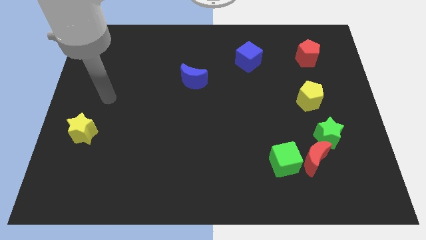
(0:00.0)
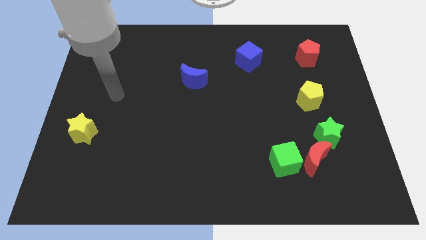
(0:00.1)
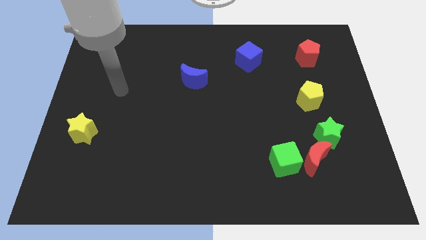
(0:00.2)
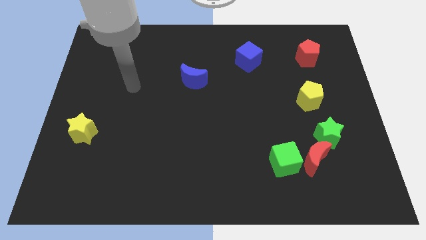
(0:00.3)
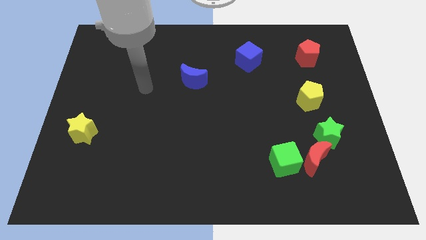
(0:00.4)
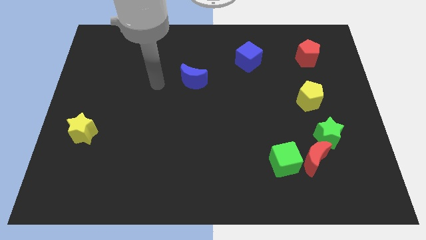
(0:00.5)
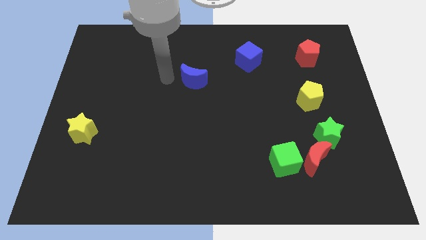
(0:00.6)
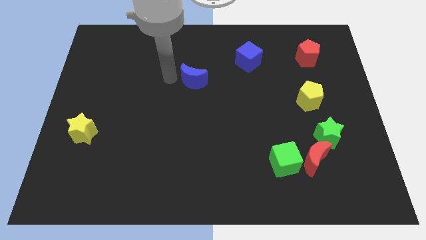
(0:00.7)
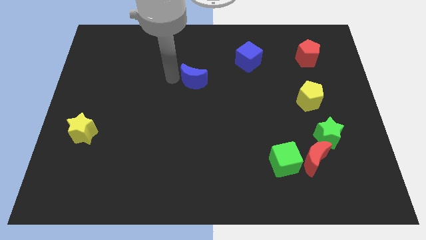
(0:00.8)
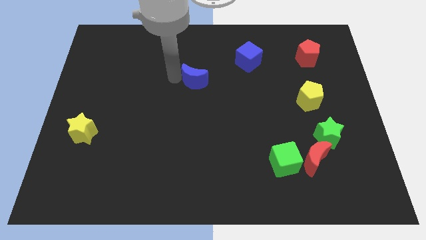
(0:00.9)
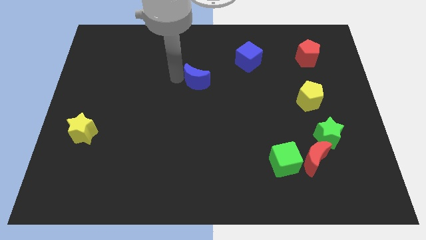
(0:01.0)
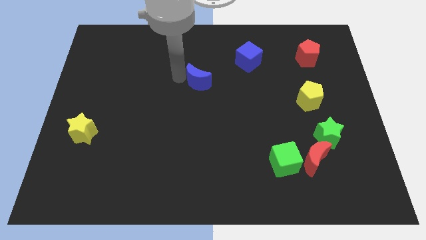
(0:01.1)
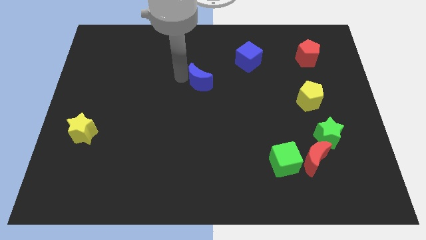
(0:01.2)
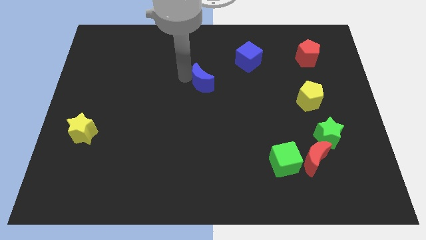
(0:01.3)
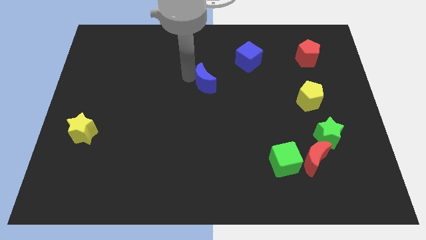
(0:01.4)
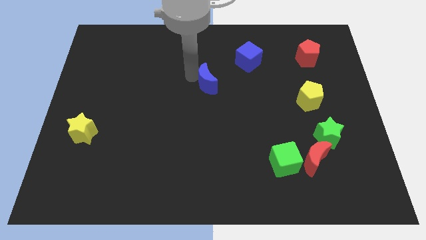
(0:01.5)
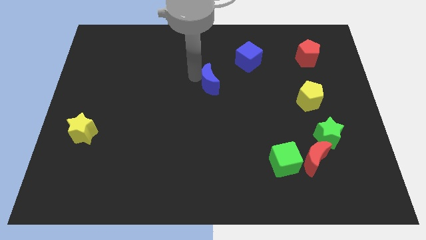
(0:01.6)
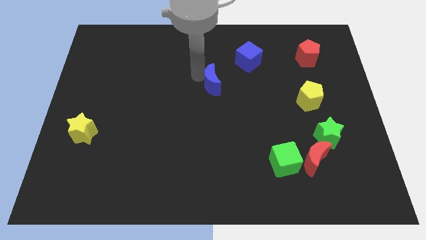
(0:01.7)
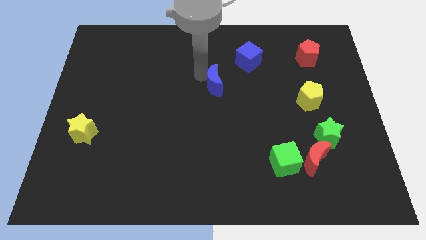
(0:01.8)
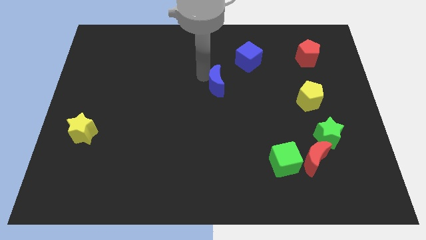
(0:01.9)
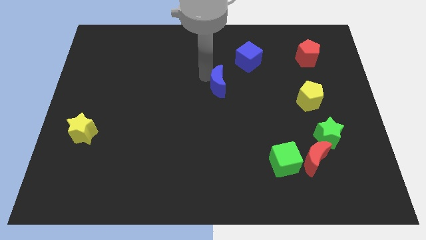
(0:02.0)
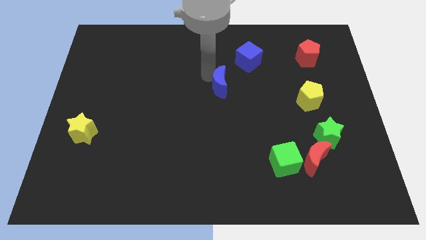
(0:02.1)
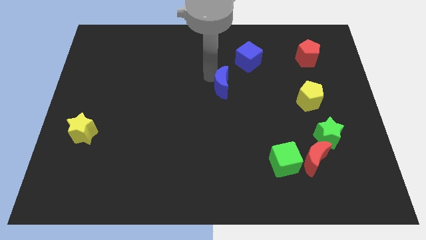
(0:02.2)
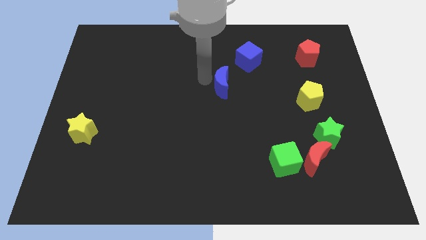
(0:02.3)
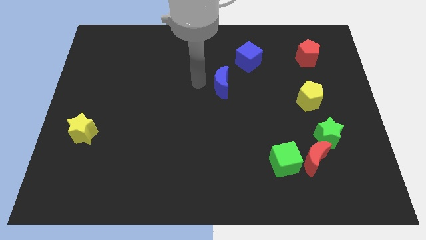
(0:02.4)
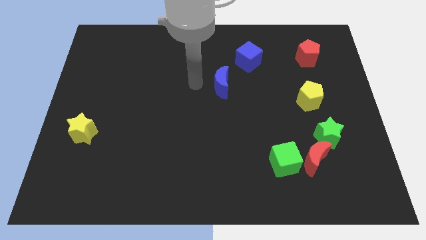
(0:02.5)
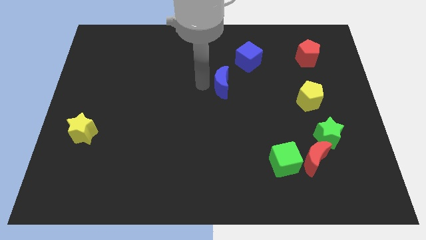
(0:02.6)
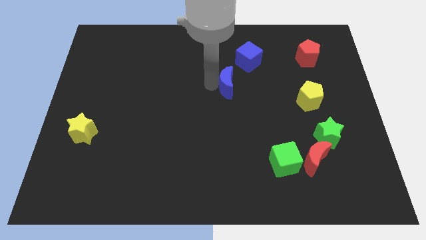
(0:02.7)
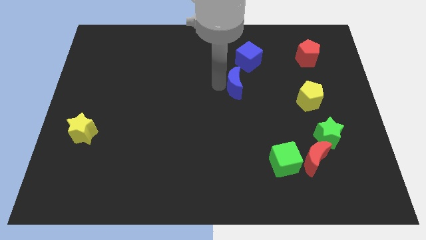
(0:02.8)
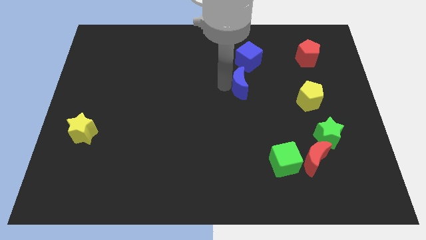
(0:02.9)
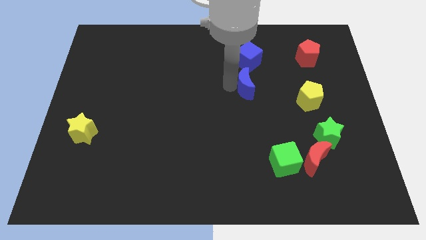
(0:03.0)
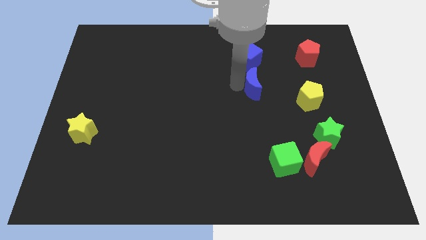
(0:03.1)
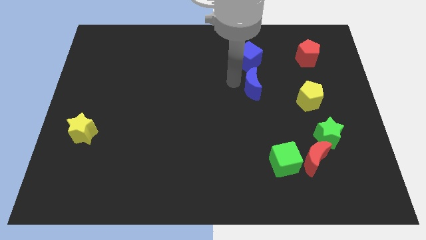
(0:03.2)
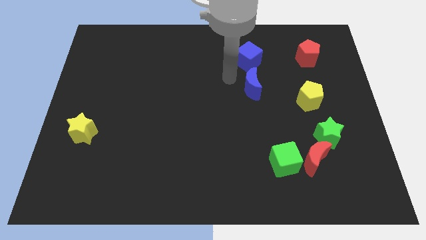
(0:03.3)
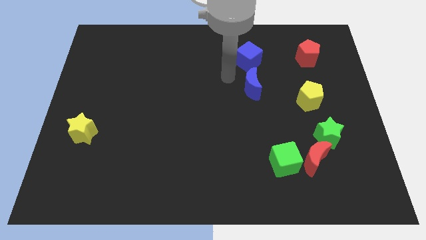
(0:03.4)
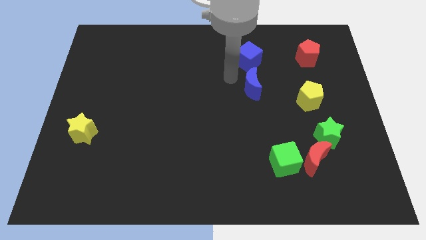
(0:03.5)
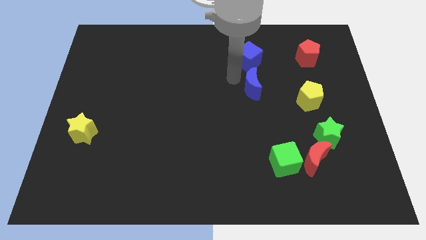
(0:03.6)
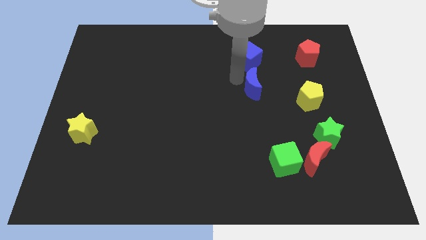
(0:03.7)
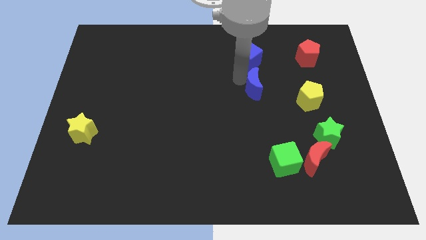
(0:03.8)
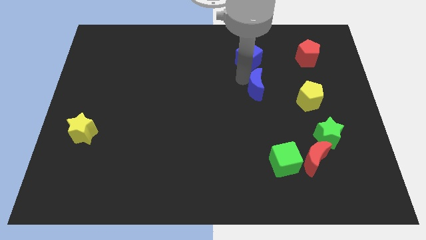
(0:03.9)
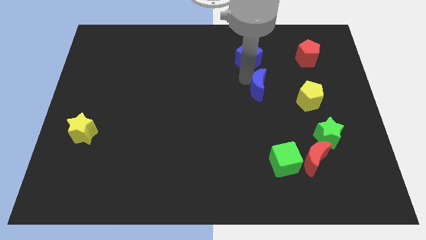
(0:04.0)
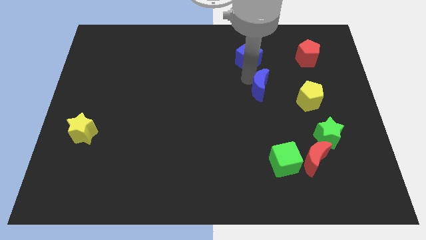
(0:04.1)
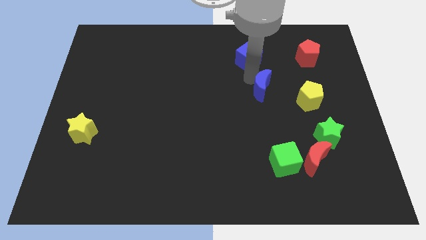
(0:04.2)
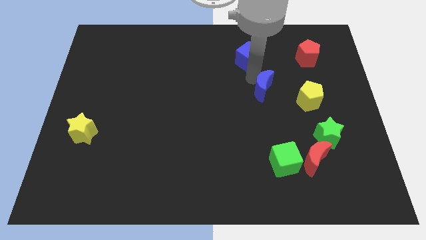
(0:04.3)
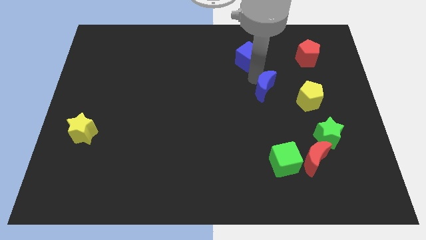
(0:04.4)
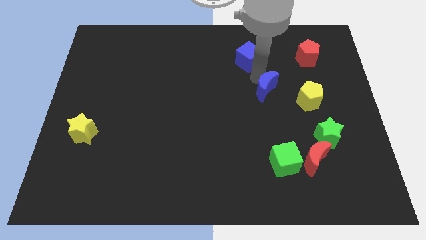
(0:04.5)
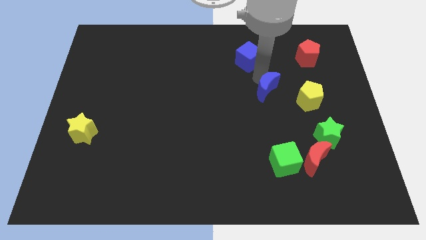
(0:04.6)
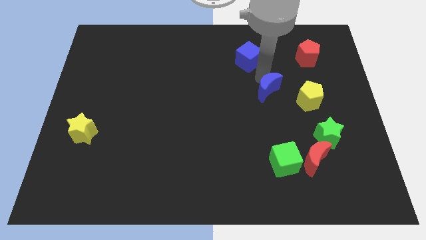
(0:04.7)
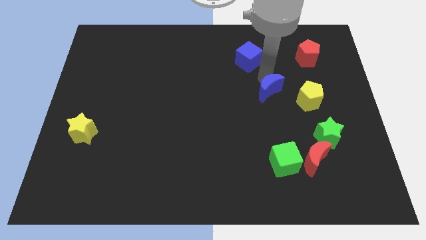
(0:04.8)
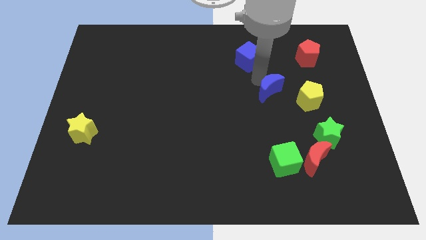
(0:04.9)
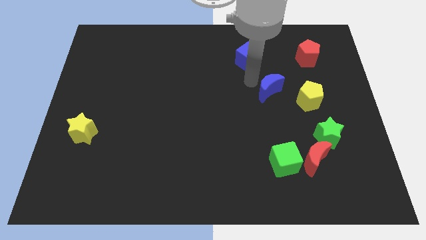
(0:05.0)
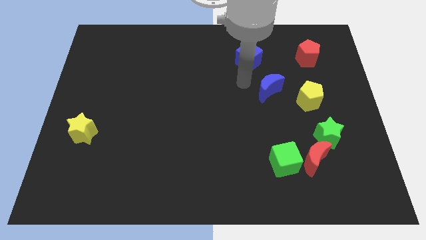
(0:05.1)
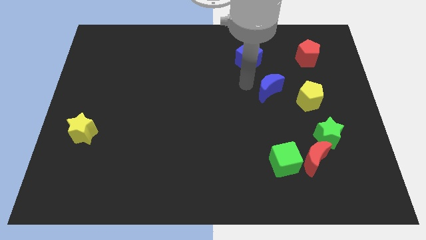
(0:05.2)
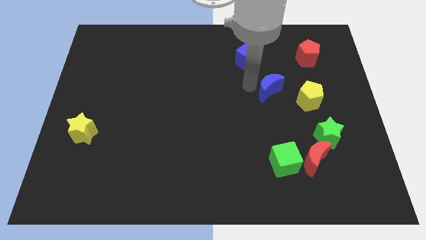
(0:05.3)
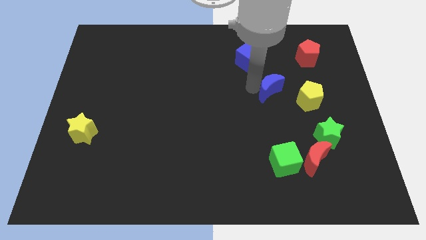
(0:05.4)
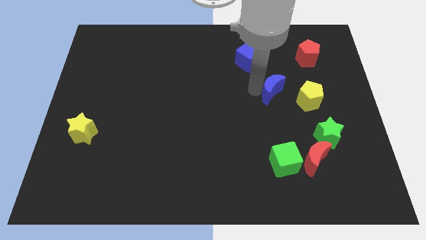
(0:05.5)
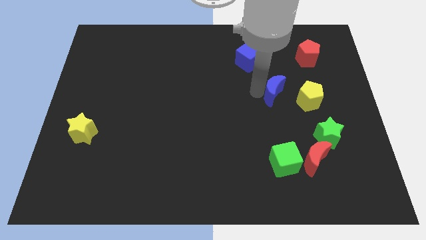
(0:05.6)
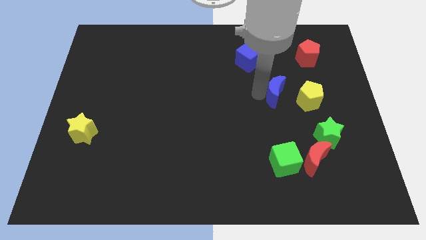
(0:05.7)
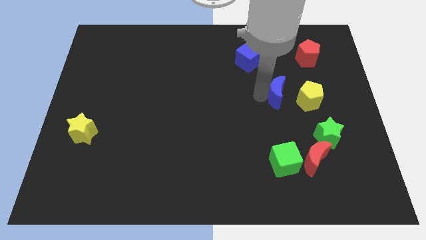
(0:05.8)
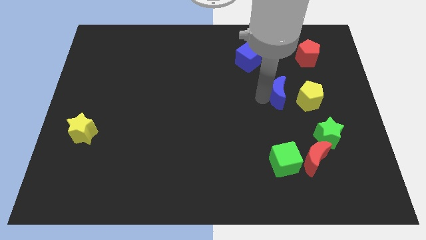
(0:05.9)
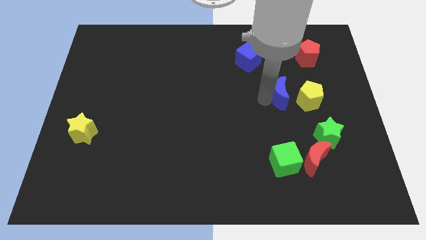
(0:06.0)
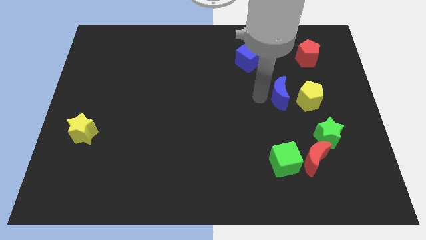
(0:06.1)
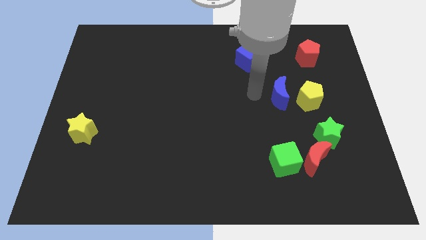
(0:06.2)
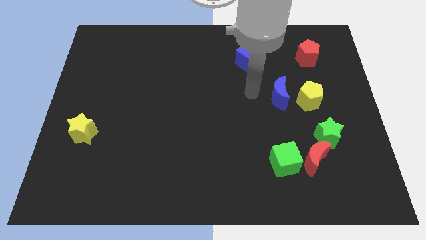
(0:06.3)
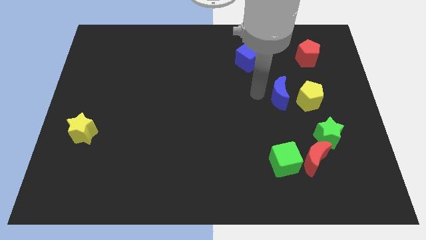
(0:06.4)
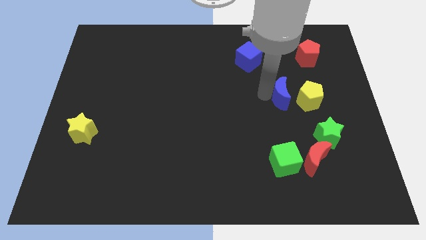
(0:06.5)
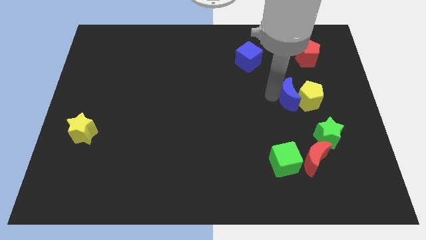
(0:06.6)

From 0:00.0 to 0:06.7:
slide the blue moon next to the yellow pentagon
